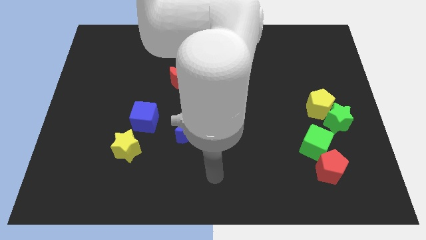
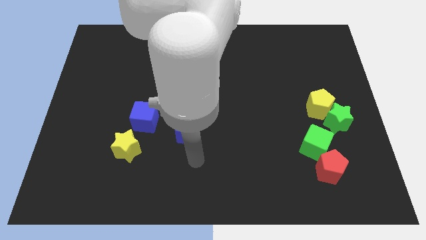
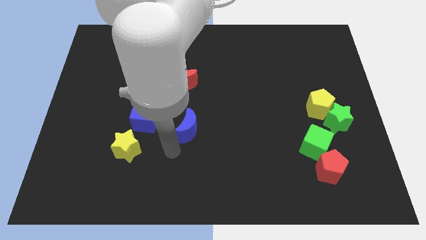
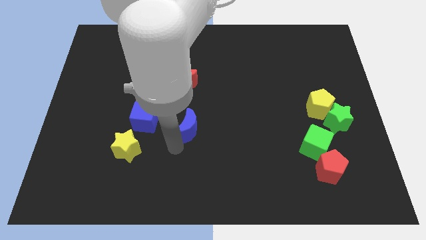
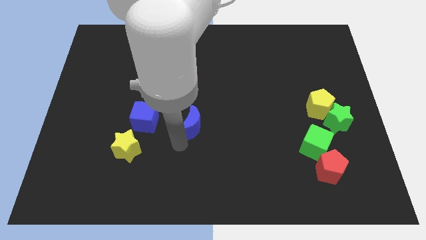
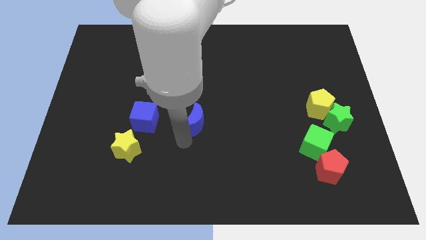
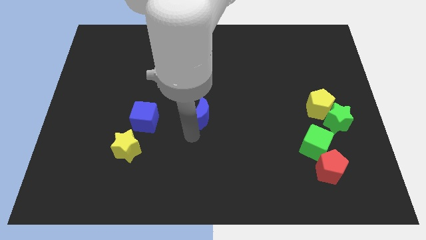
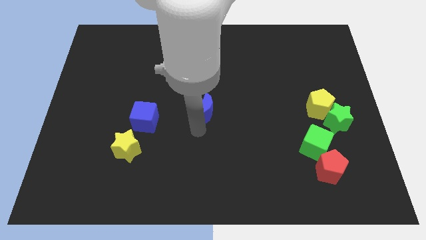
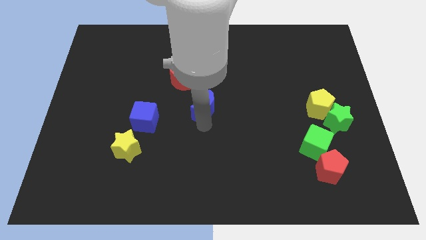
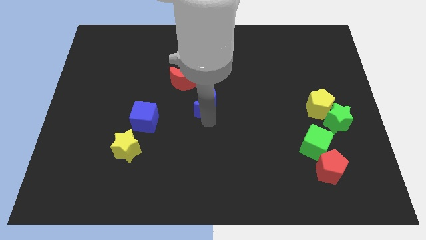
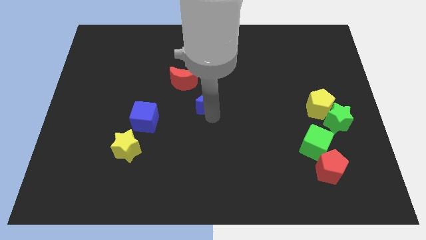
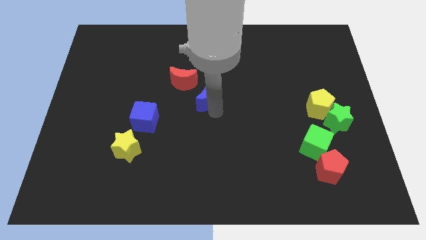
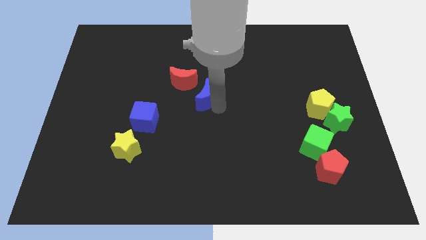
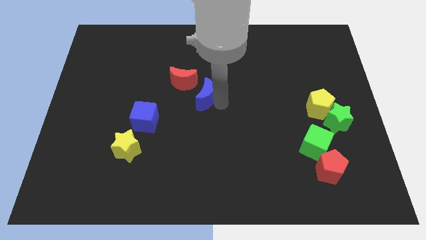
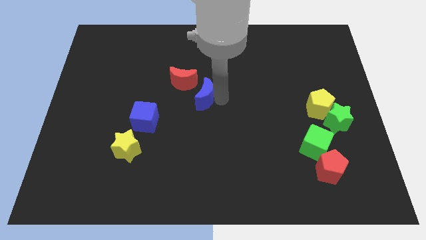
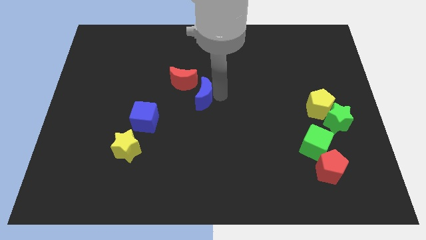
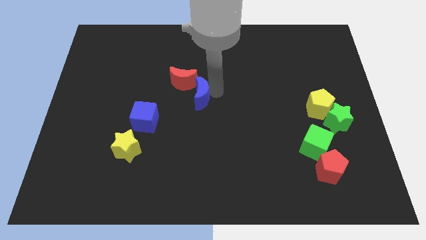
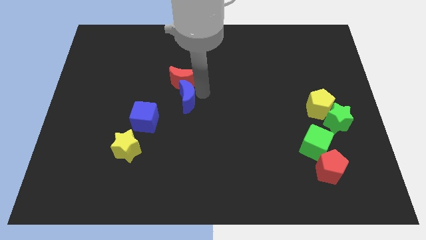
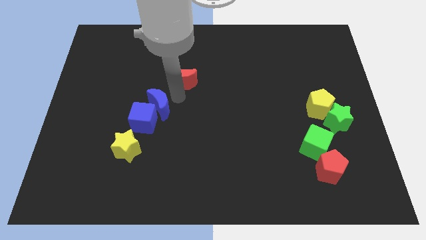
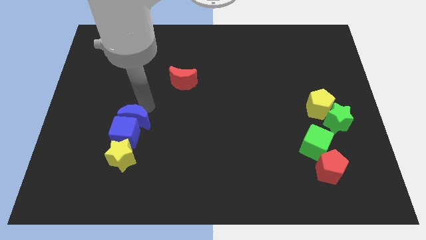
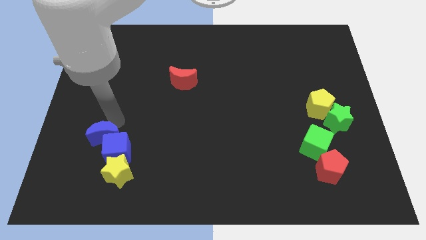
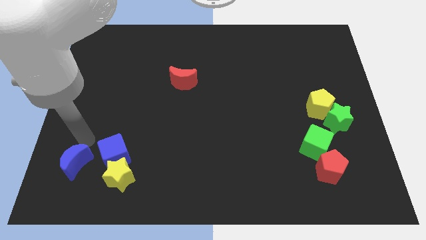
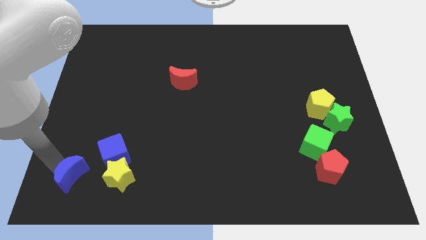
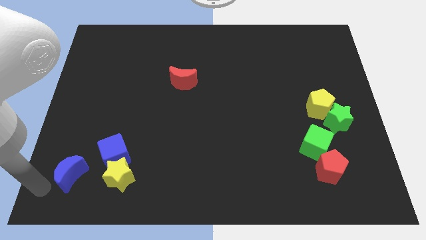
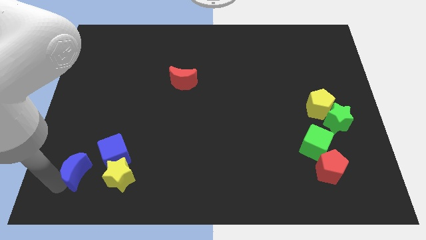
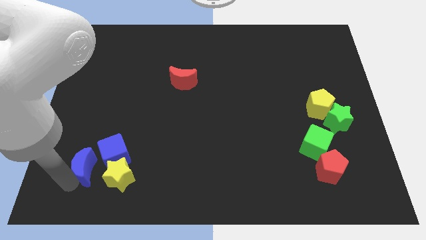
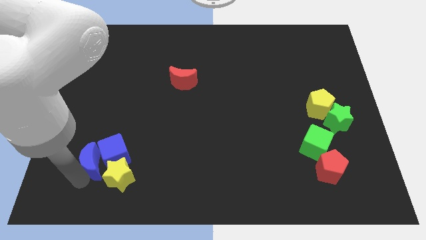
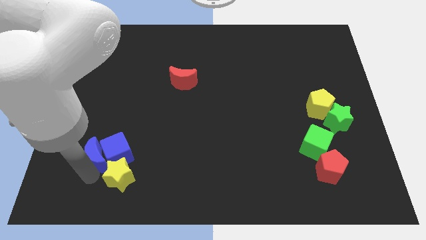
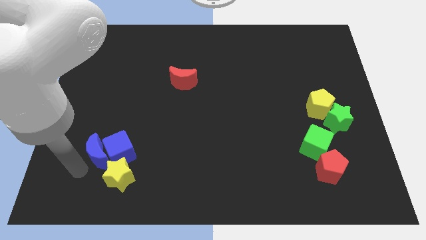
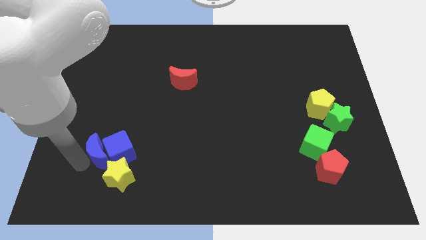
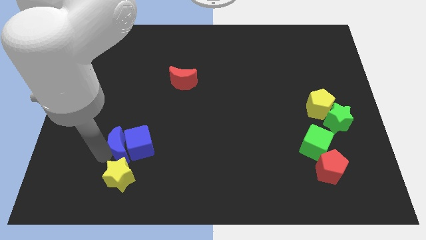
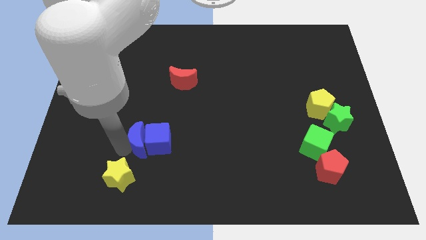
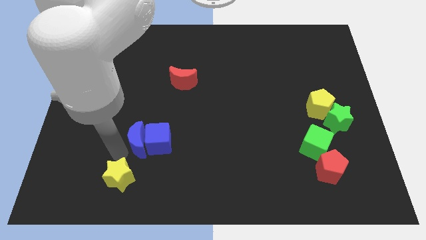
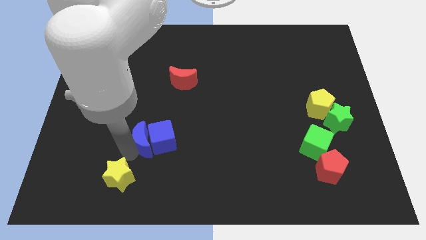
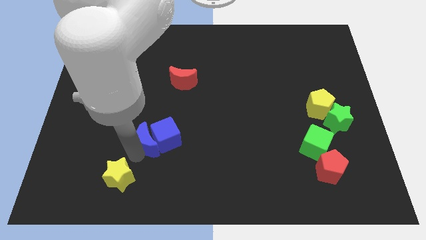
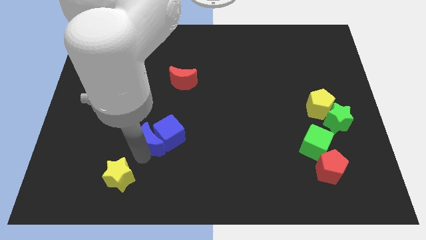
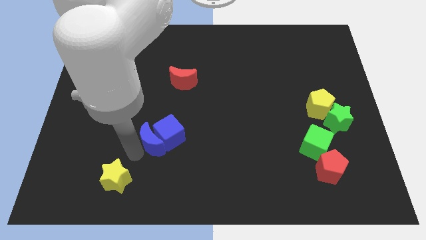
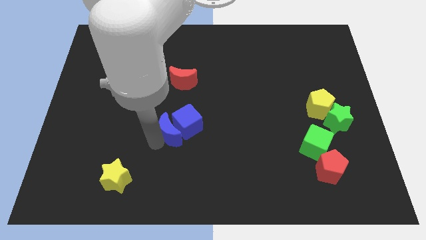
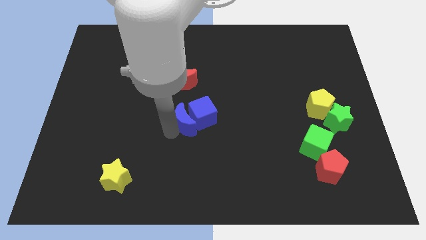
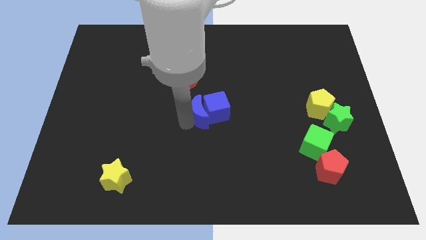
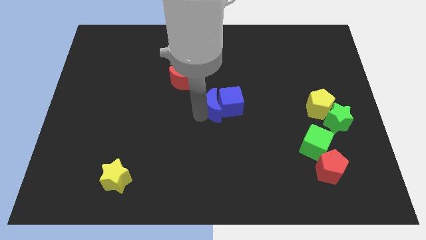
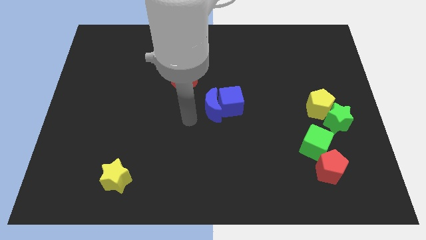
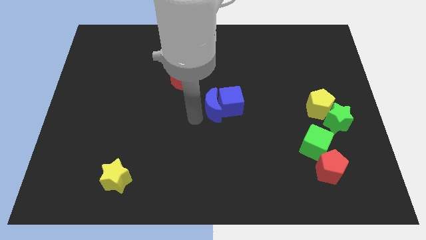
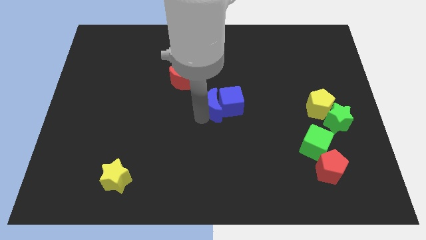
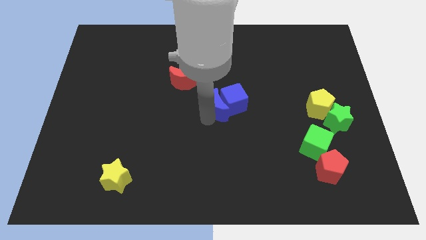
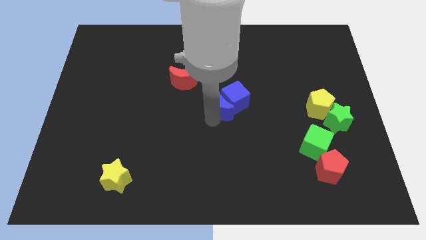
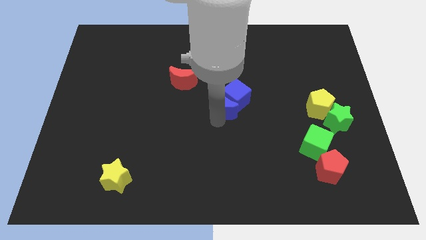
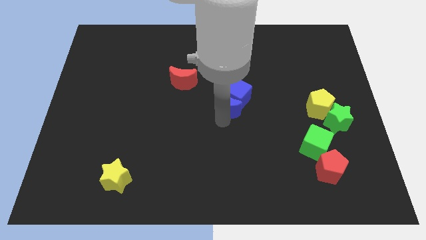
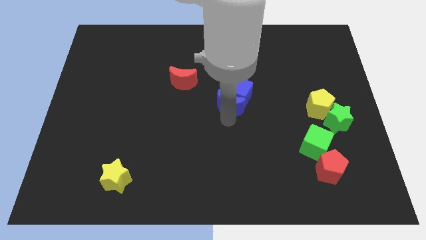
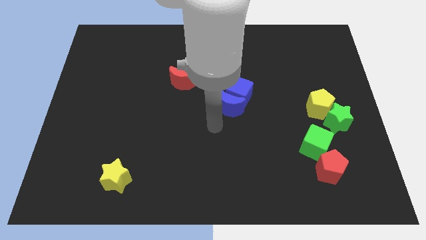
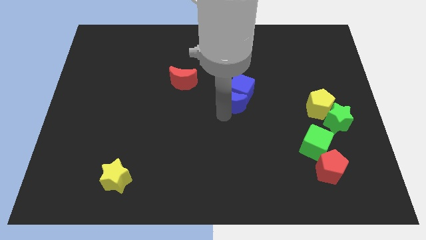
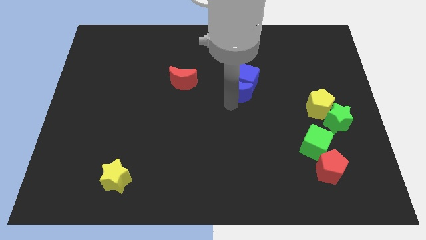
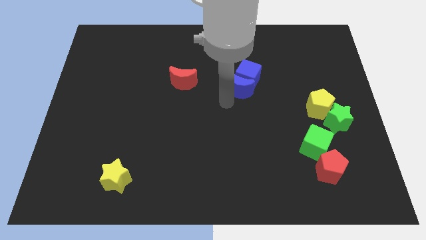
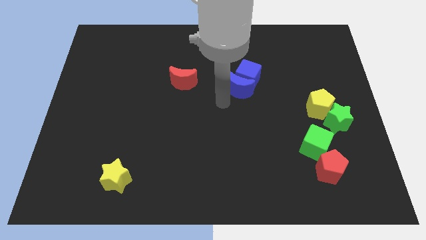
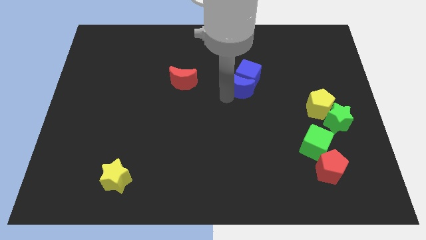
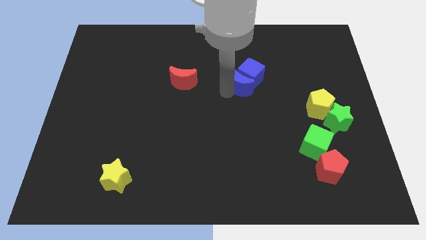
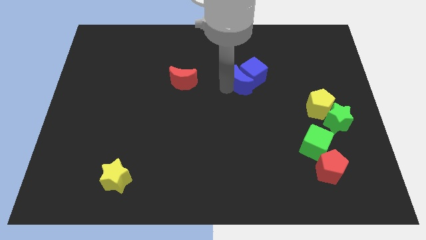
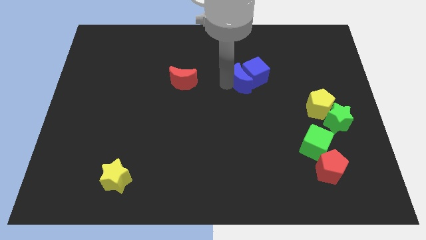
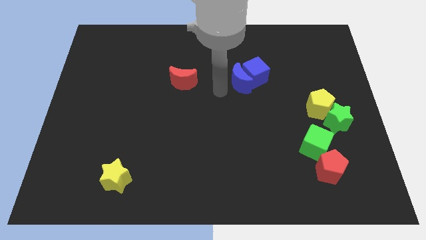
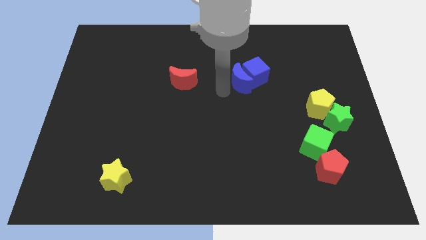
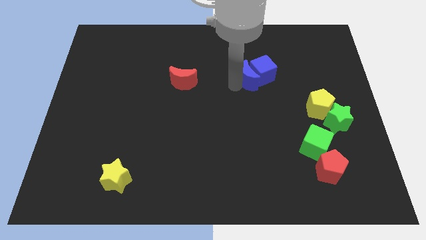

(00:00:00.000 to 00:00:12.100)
push the blue moon upwards and to the right

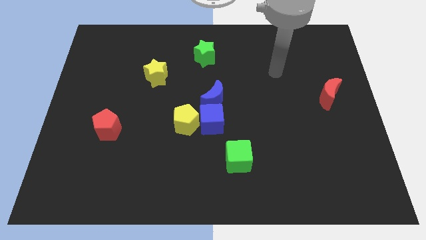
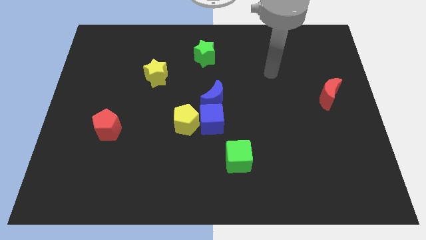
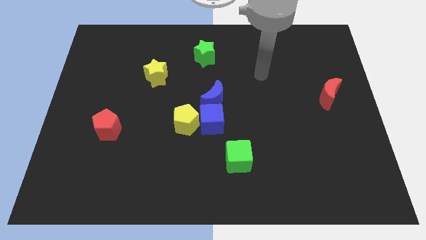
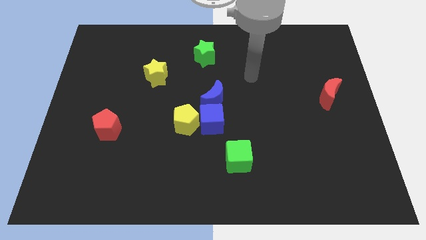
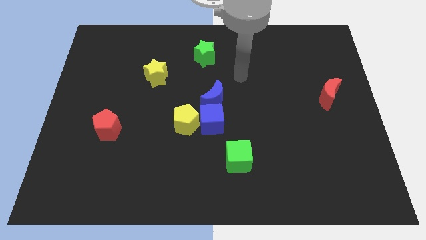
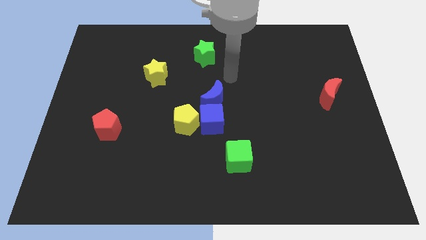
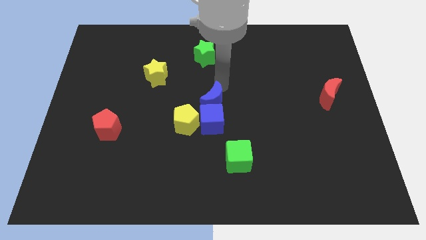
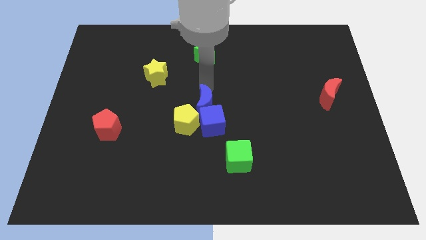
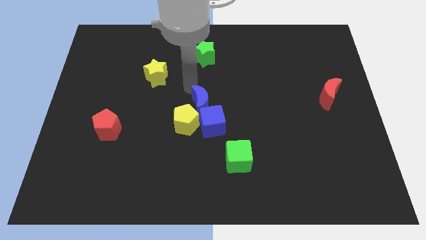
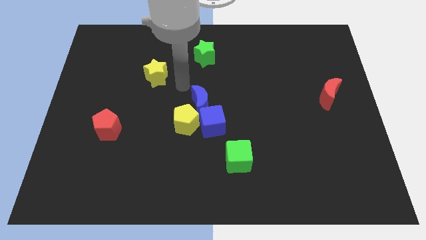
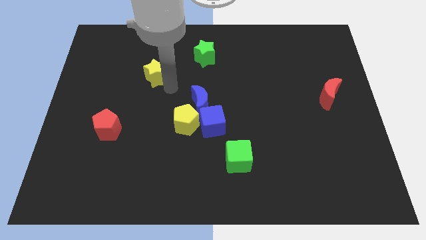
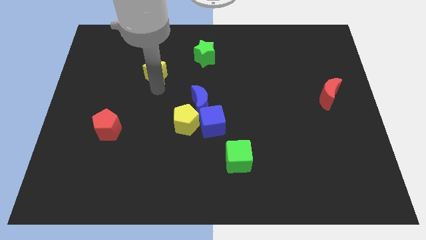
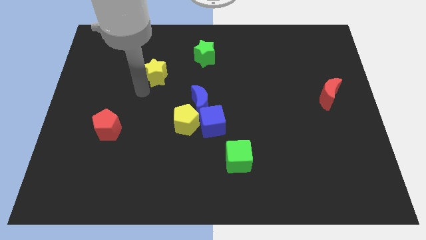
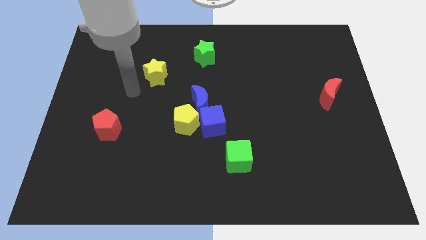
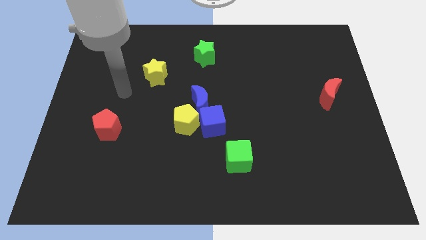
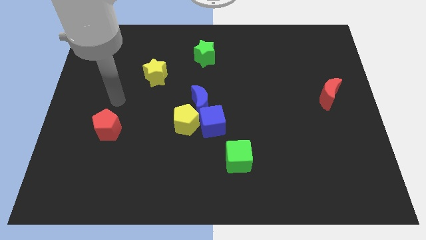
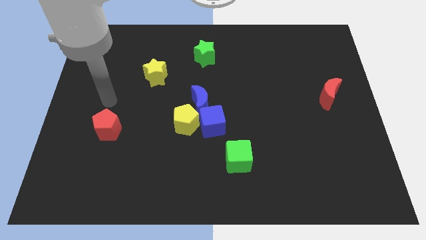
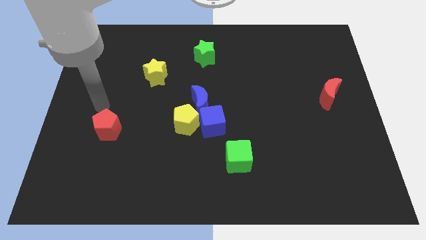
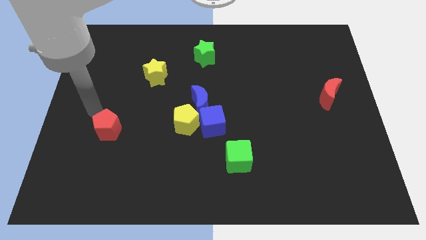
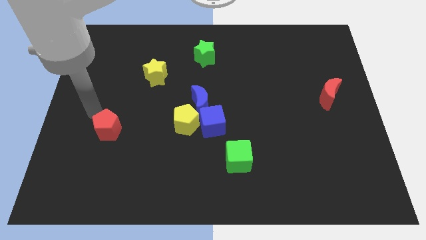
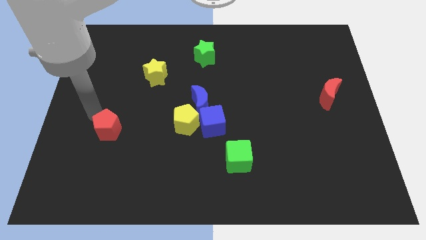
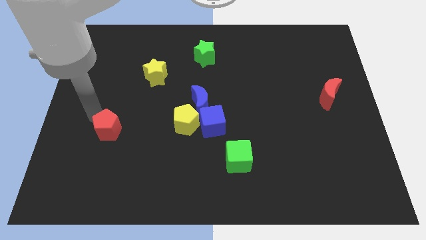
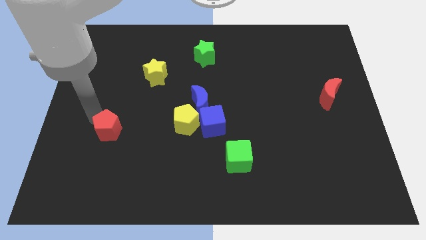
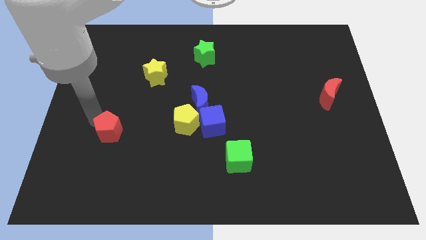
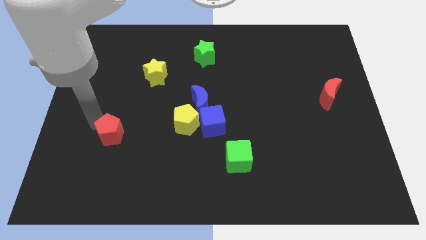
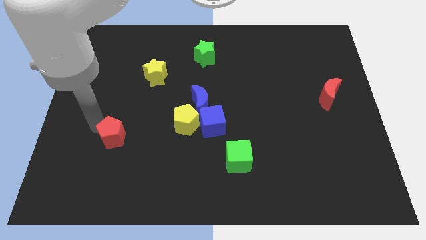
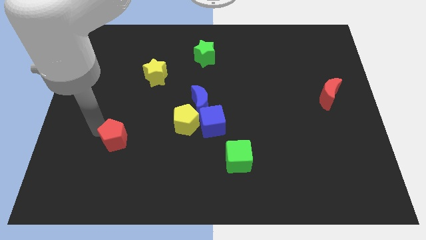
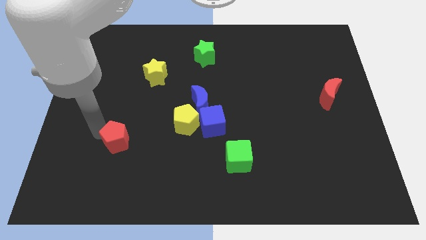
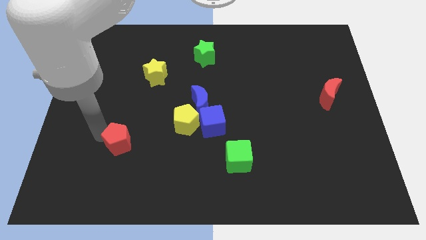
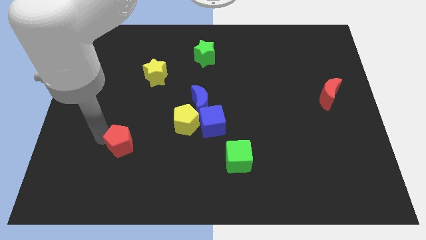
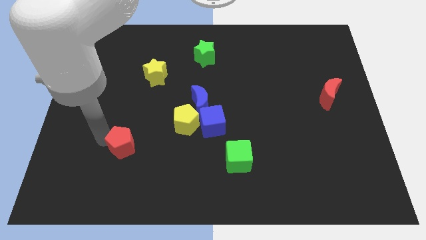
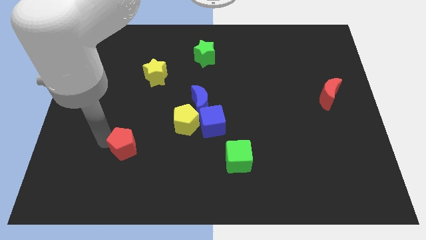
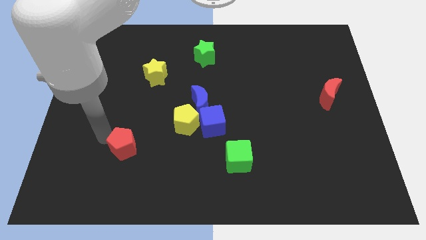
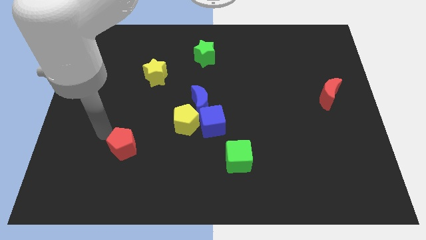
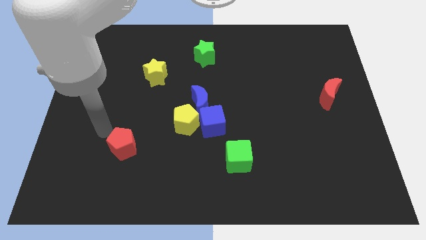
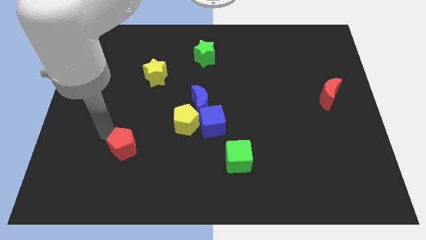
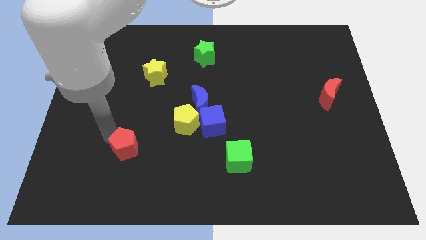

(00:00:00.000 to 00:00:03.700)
move the red pentagon downwards and then to the right a little
